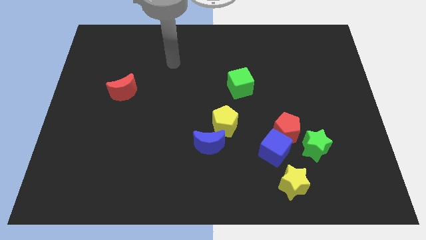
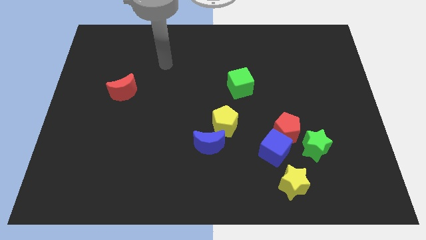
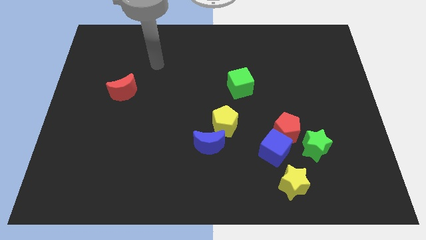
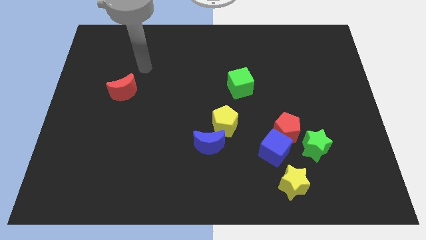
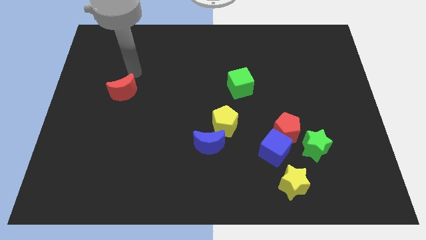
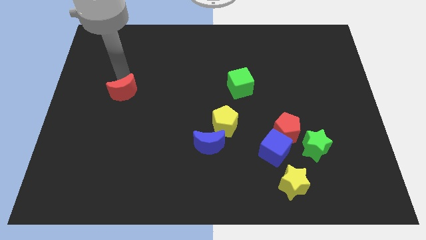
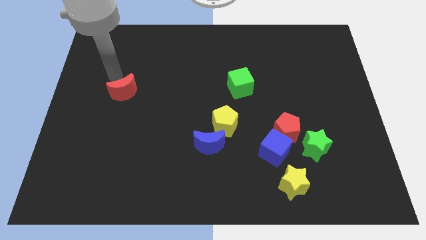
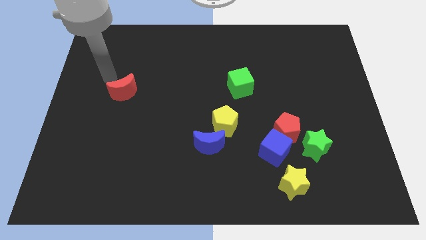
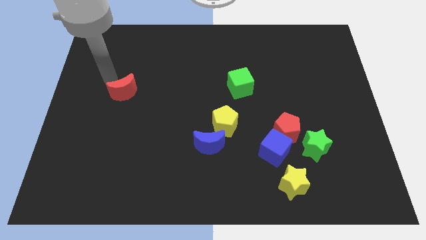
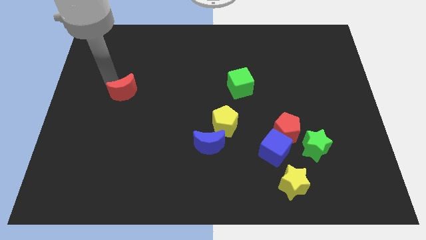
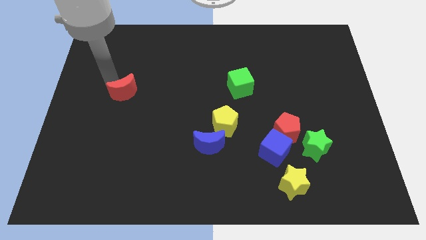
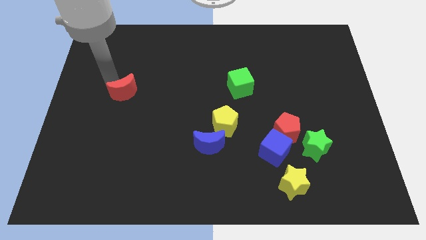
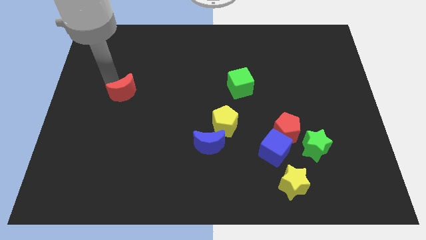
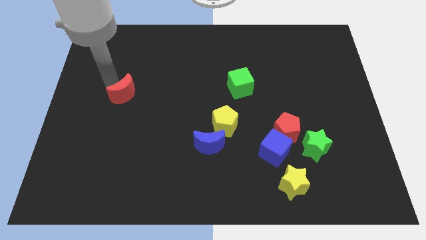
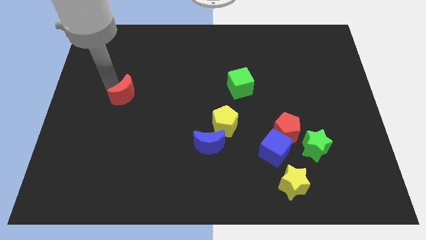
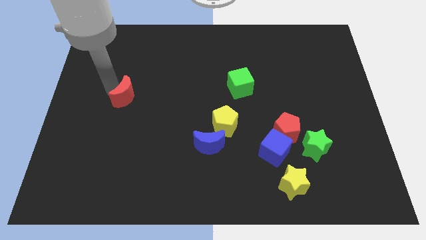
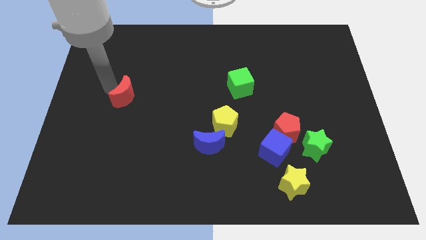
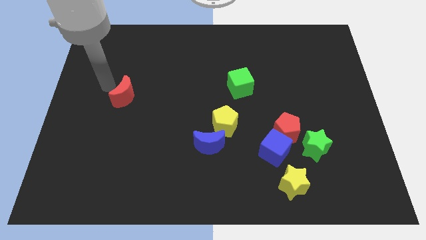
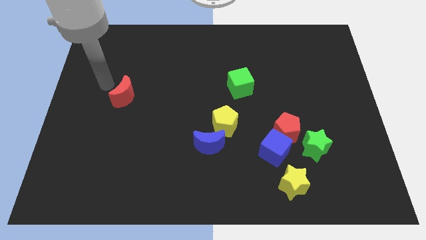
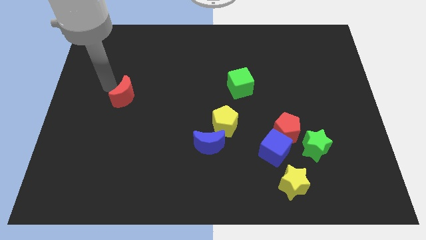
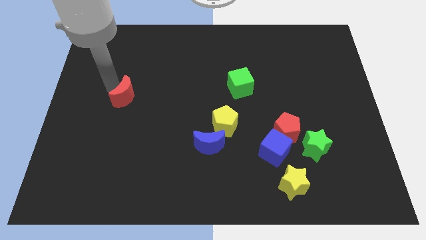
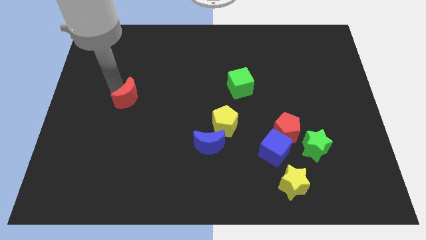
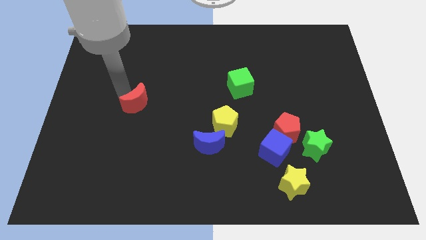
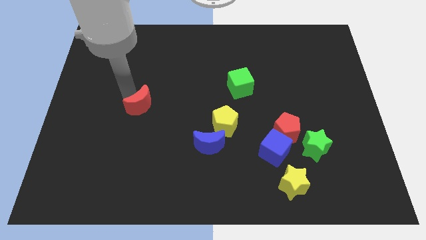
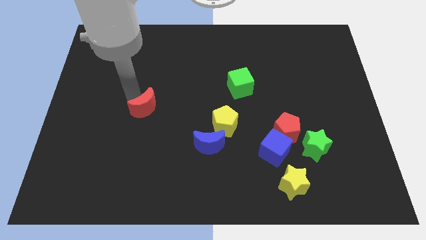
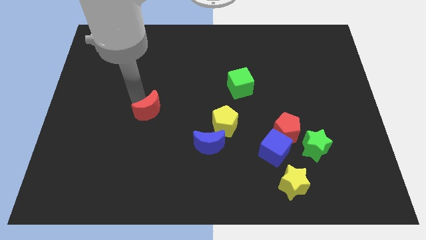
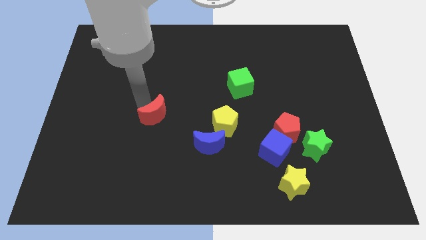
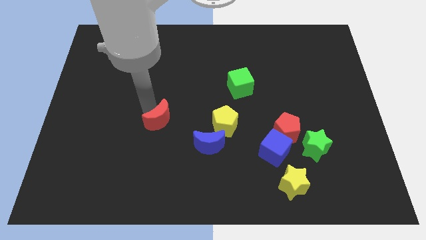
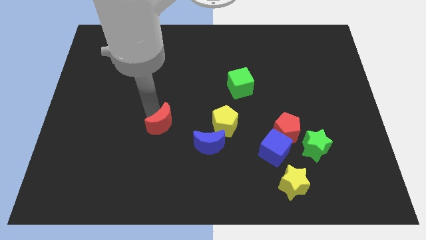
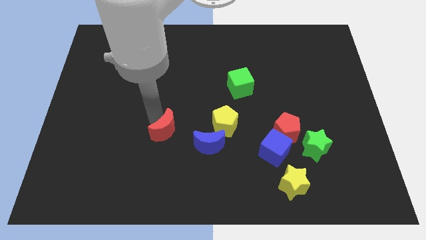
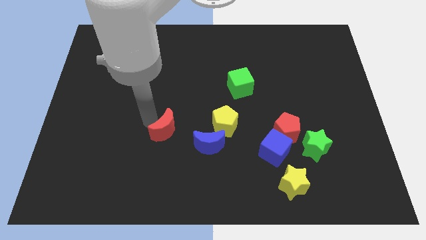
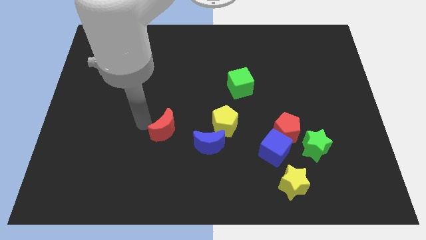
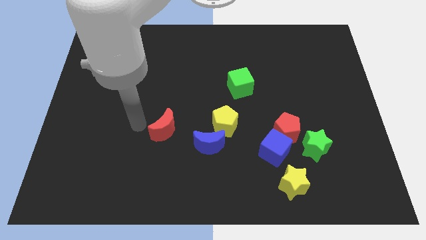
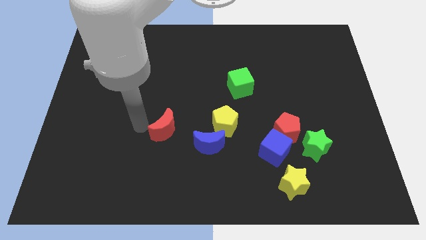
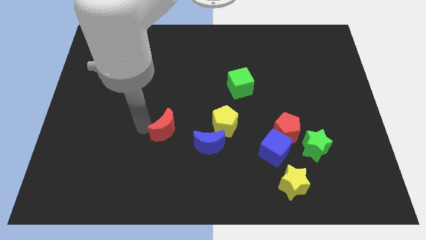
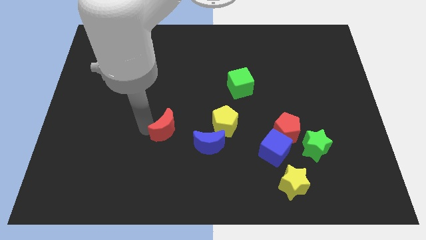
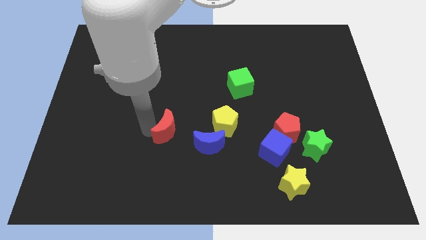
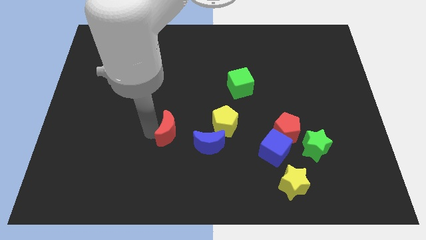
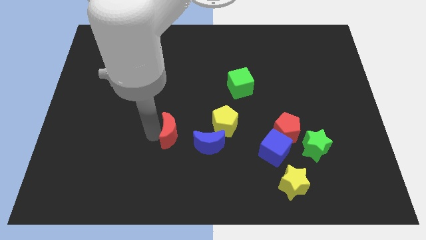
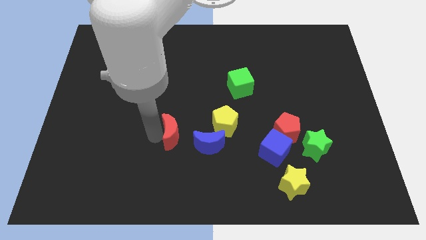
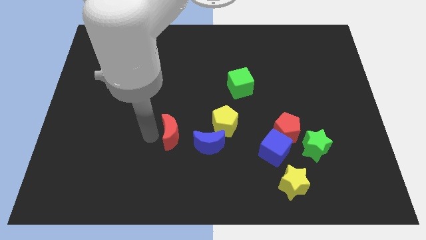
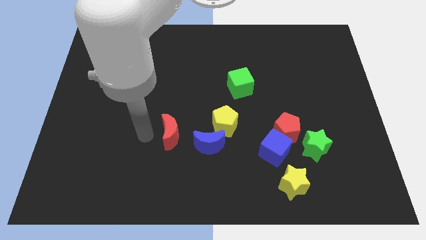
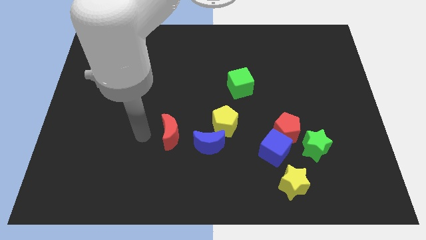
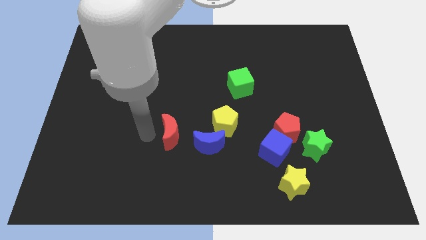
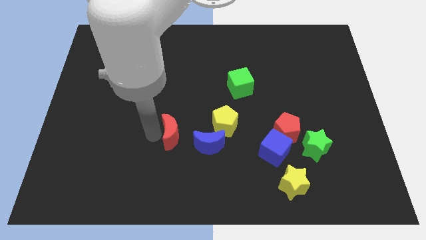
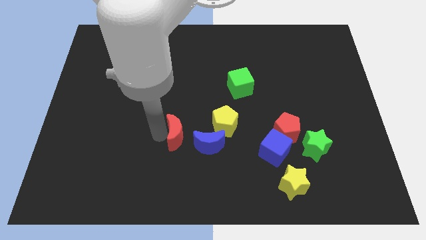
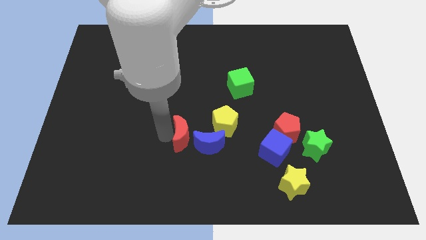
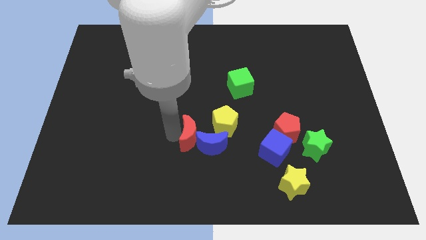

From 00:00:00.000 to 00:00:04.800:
move the red moon close to the blue moon

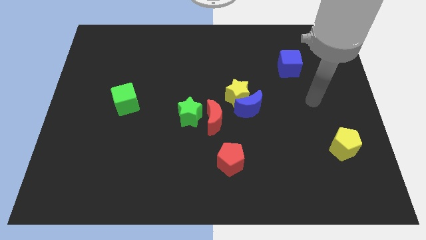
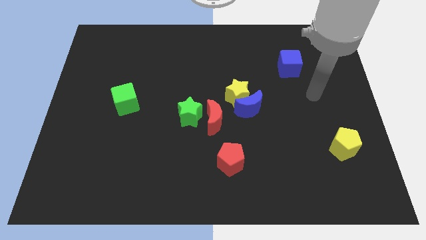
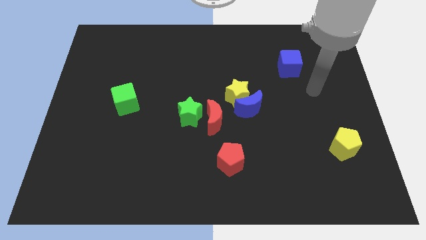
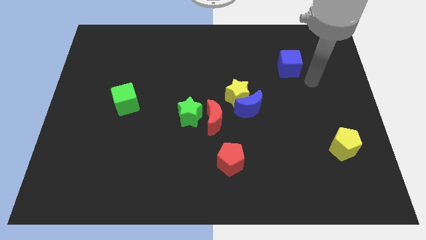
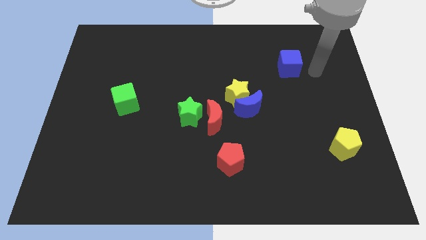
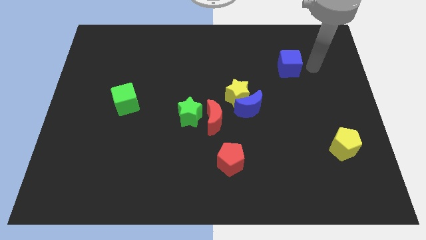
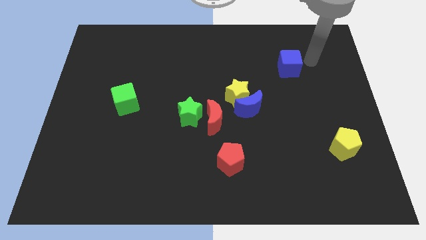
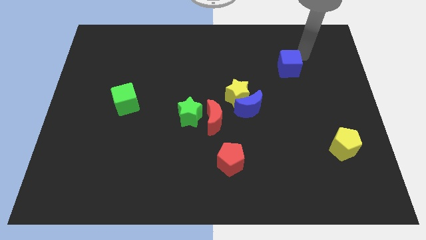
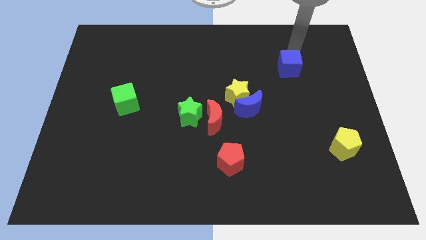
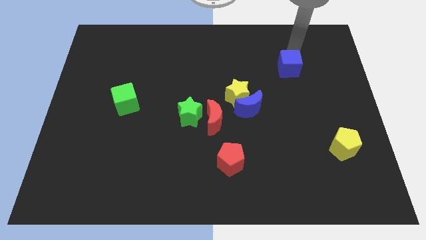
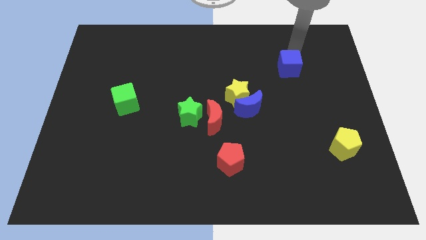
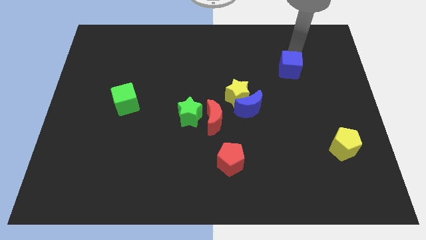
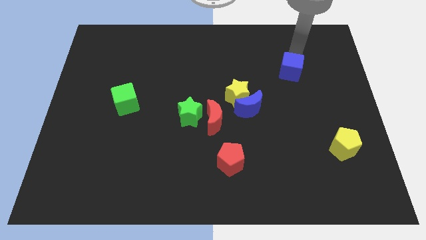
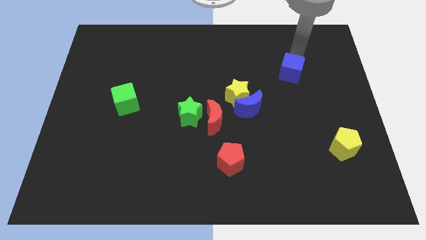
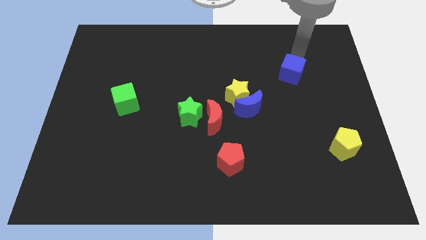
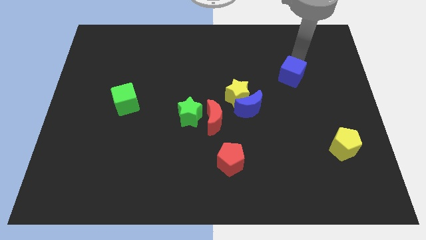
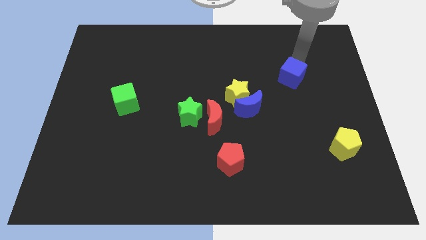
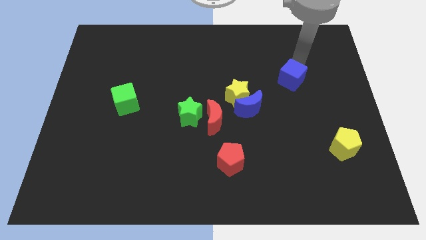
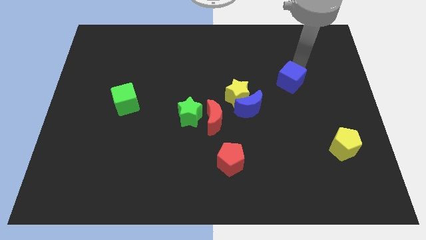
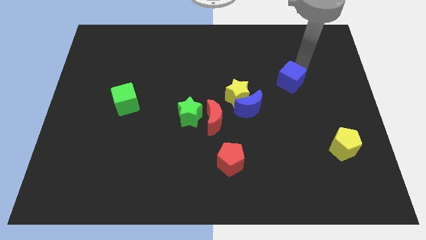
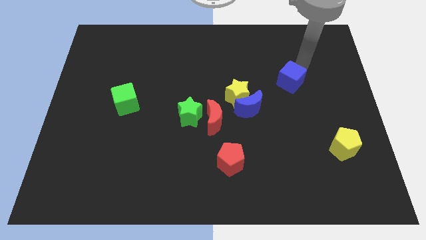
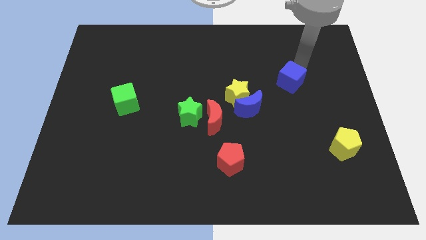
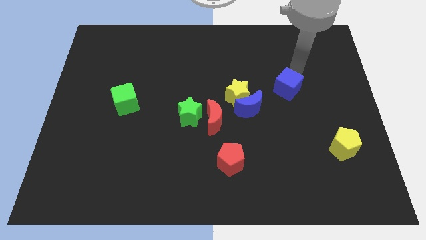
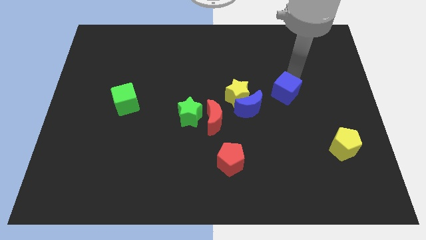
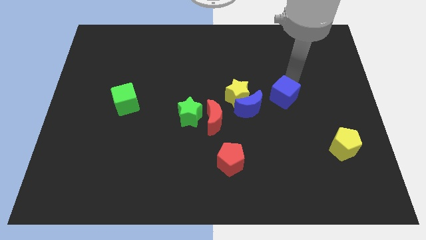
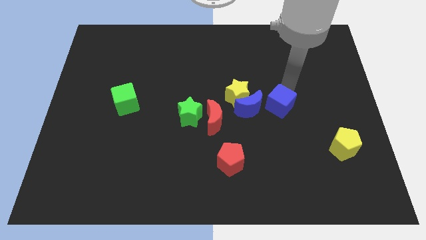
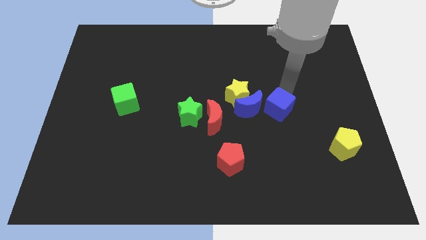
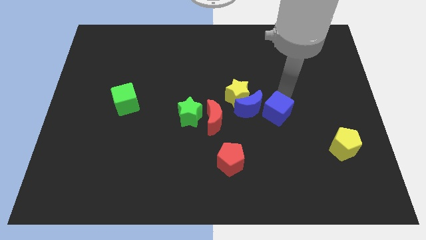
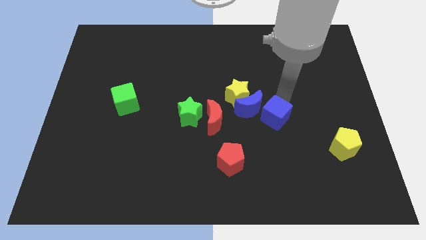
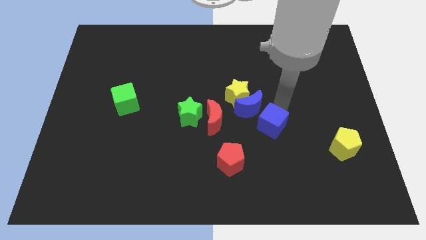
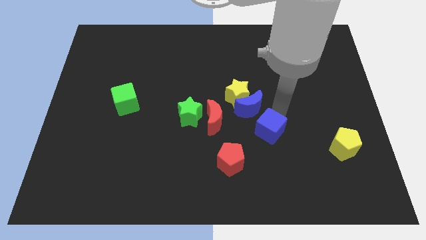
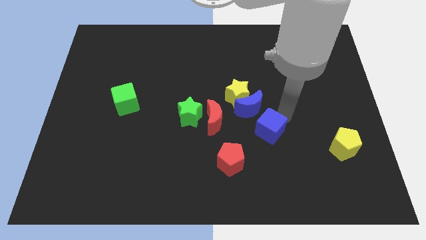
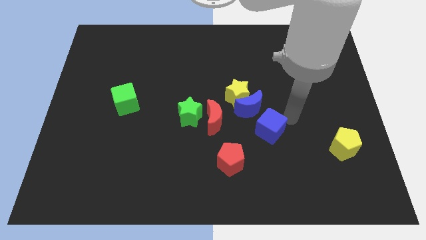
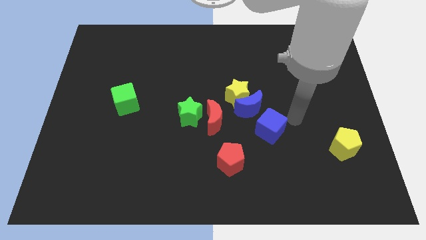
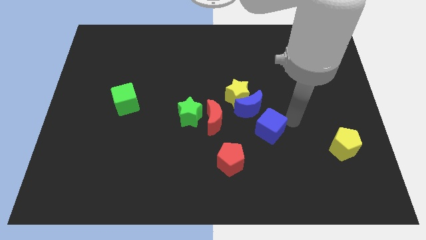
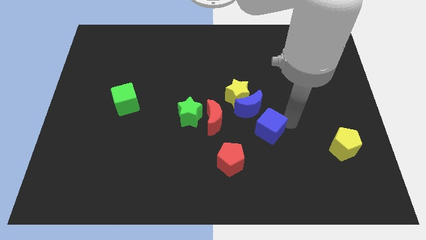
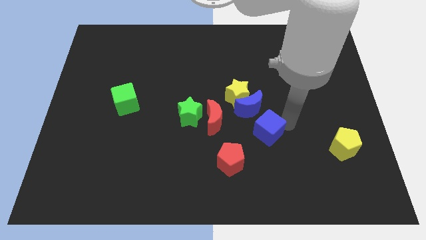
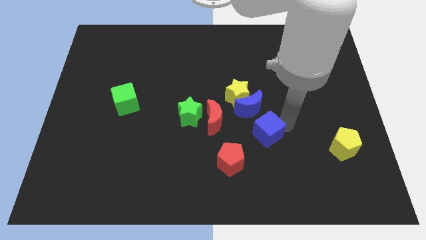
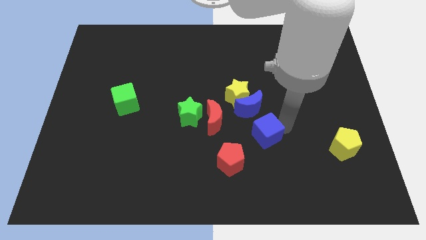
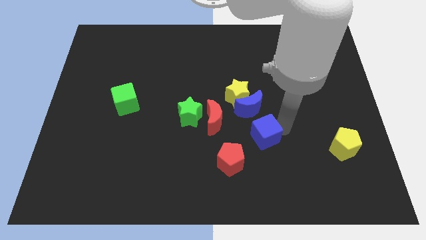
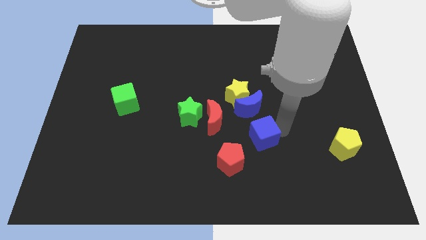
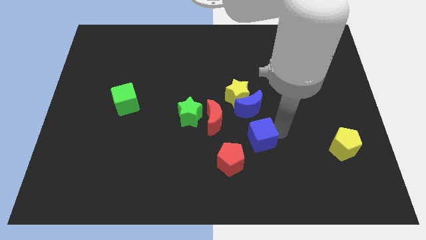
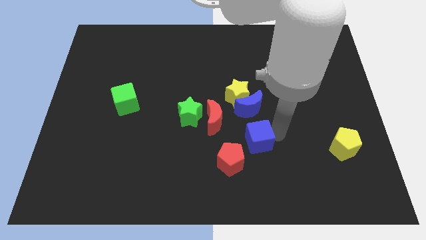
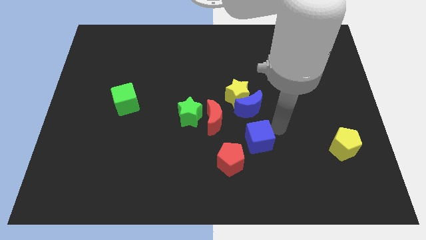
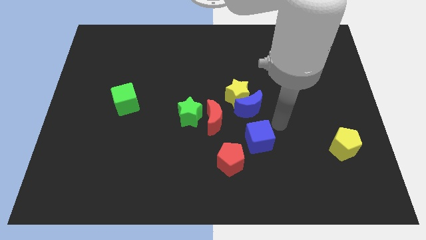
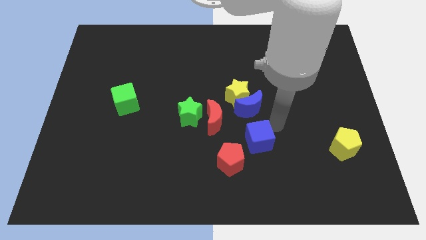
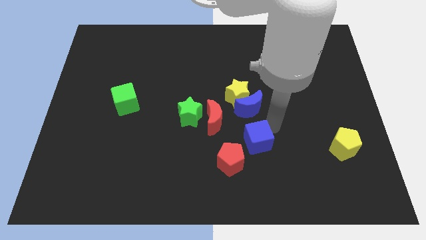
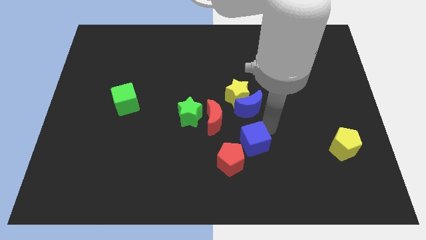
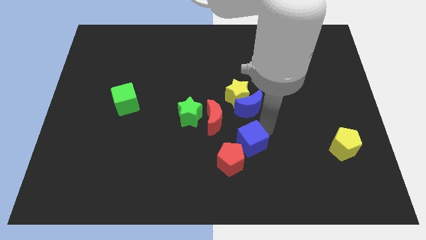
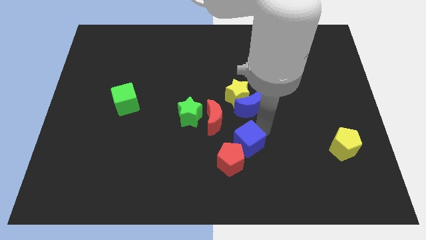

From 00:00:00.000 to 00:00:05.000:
slide the blue cube to the red pentagon
